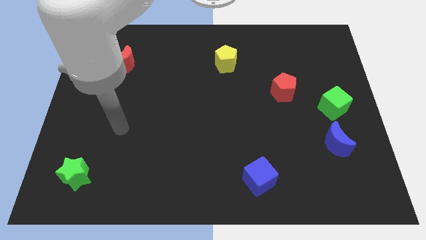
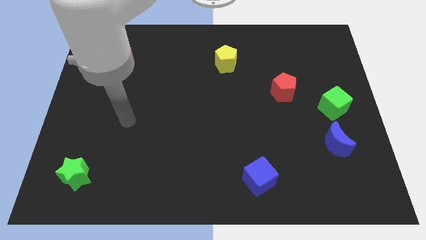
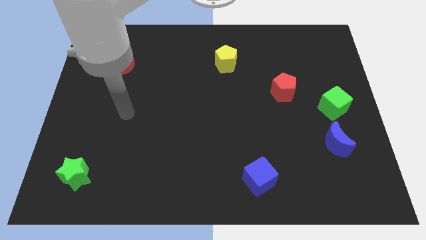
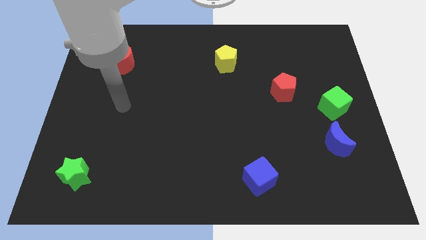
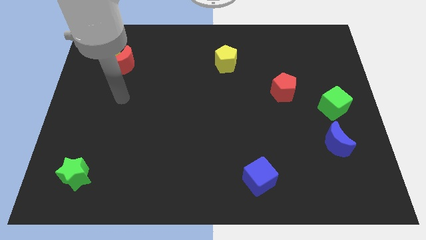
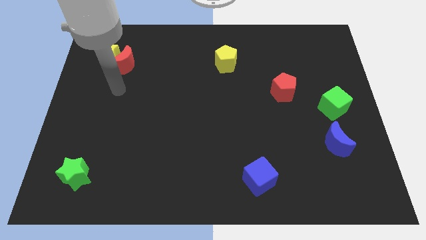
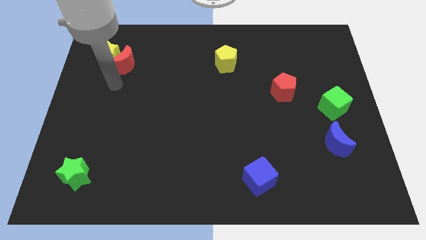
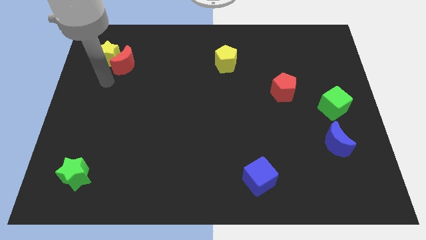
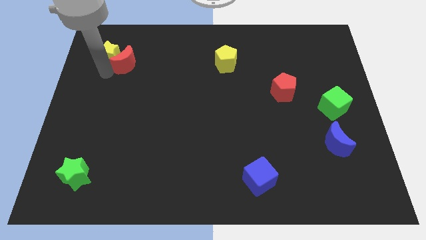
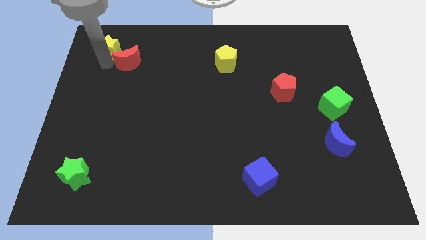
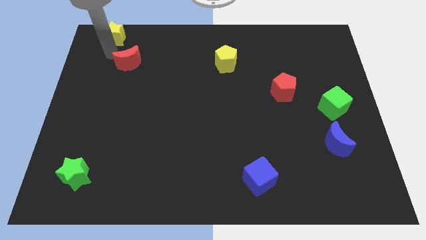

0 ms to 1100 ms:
move the red moon away from the yellow star

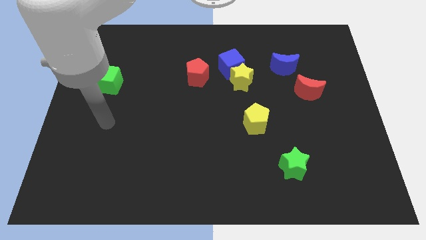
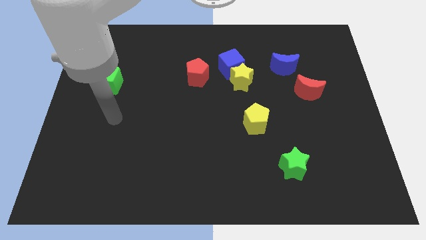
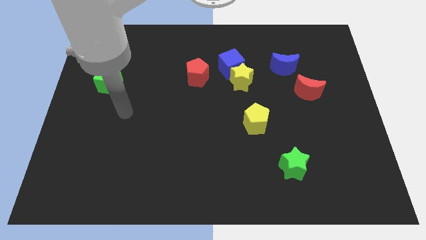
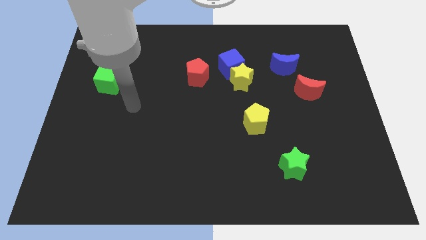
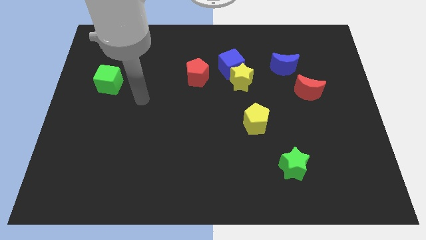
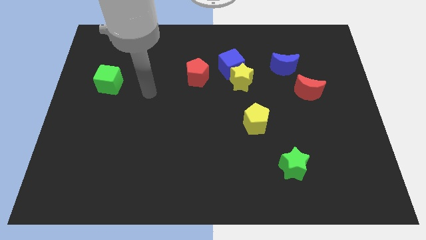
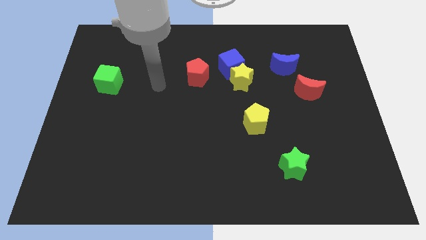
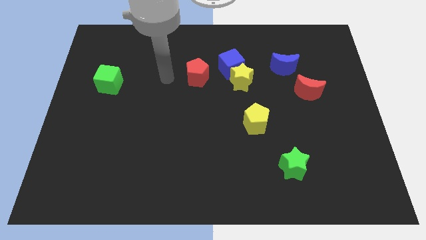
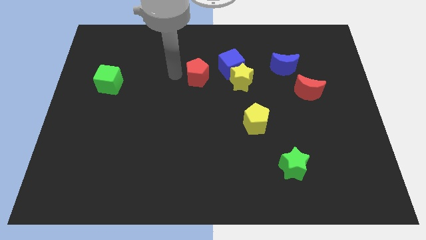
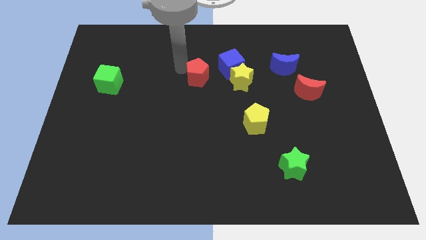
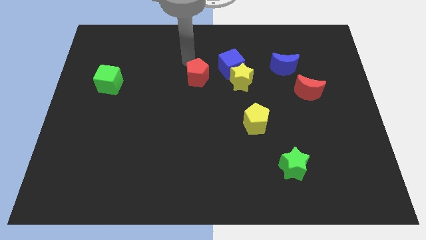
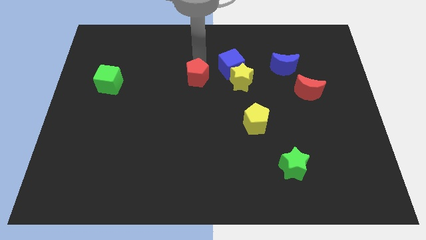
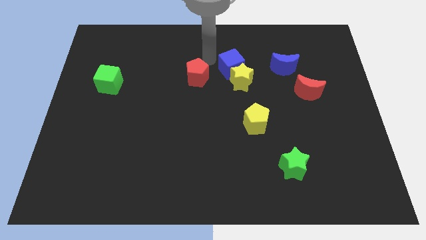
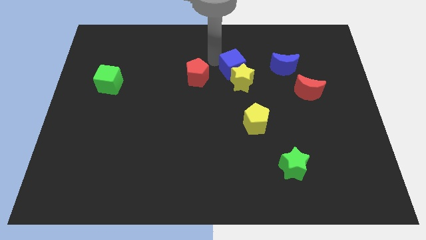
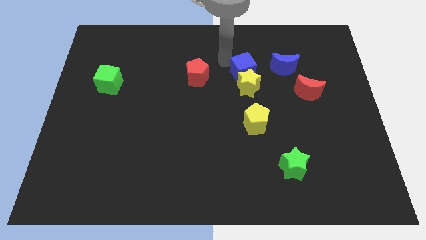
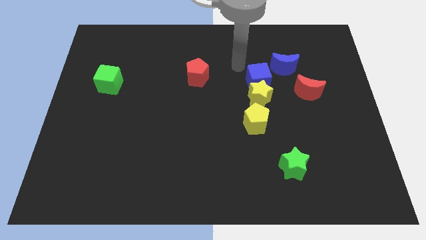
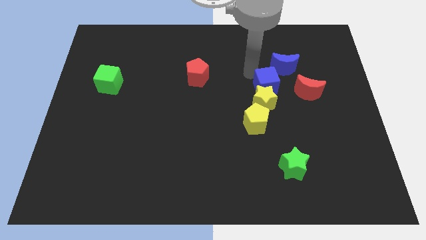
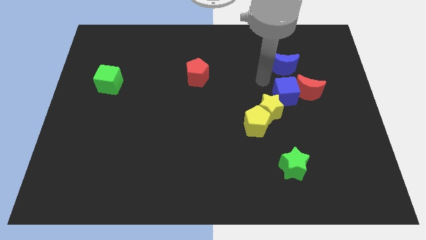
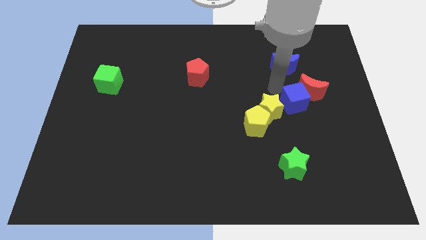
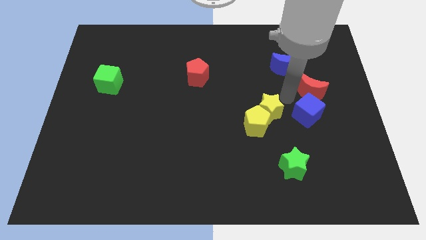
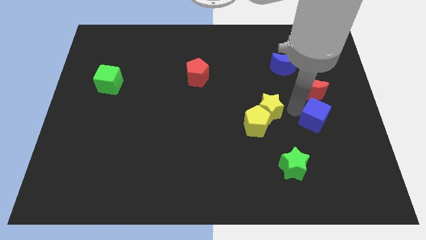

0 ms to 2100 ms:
move the yellow star away from the blue cube

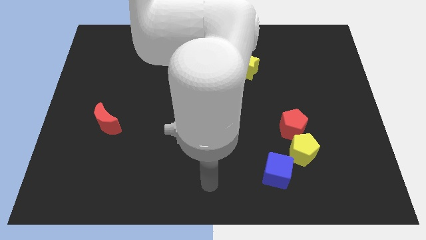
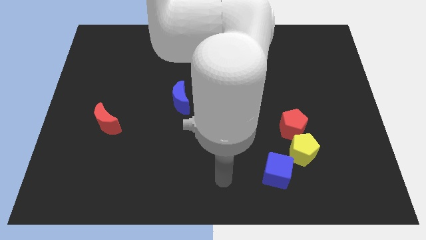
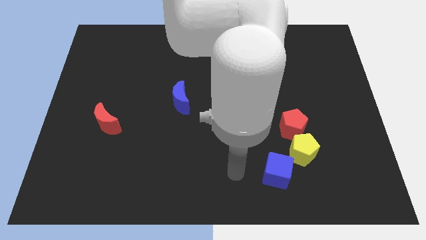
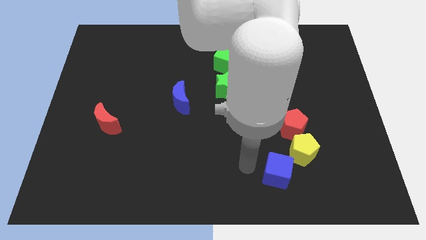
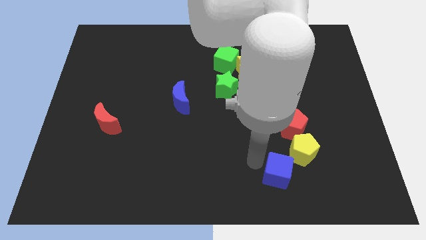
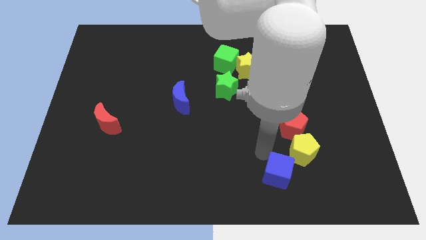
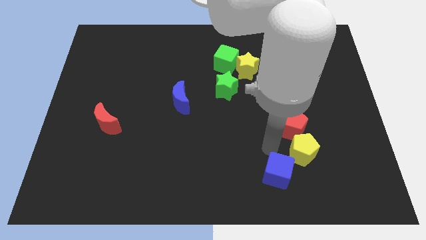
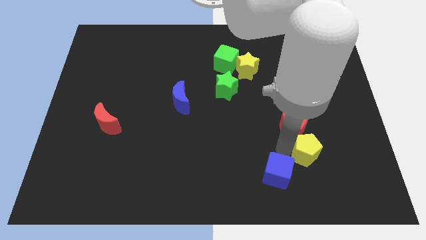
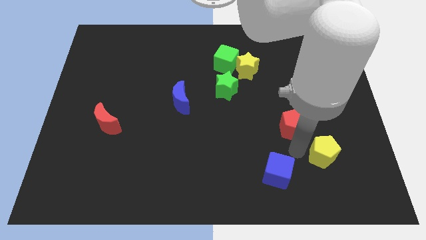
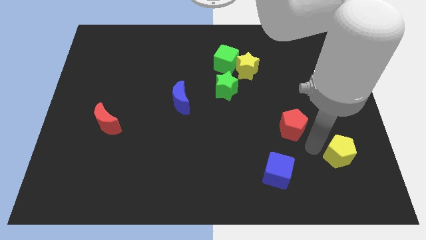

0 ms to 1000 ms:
pull the red pentagon apart from the yellow pentagon

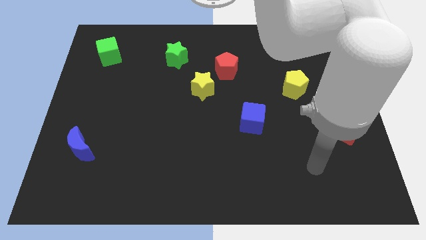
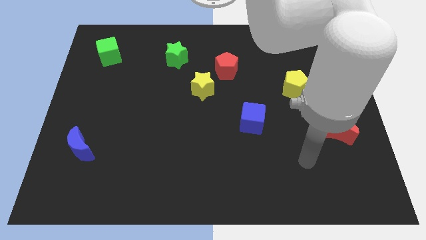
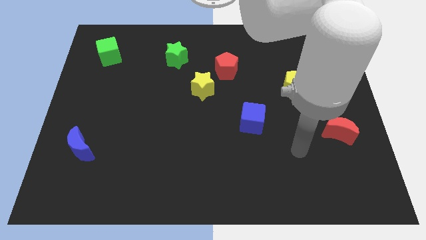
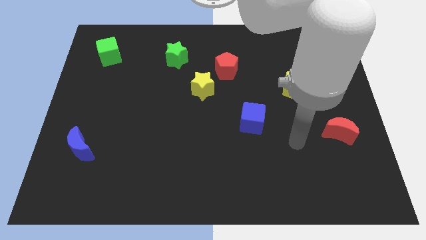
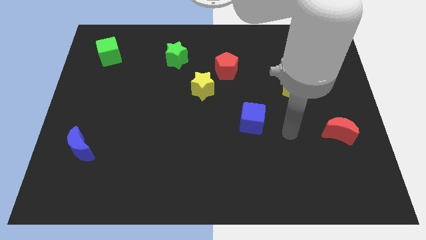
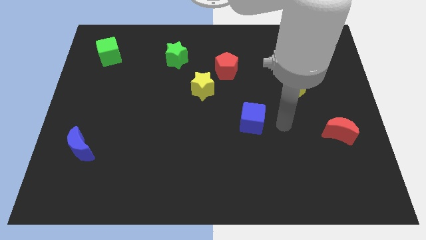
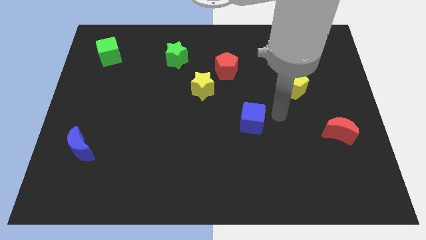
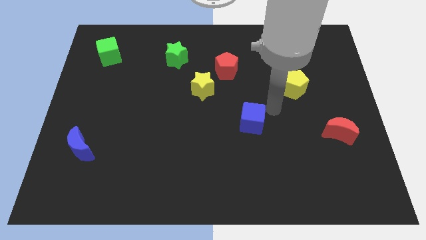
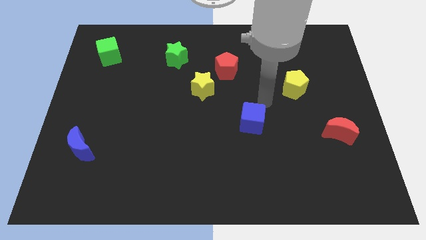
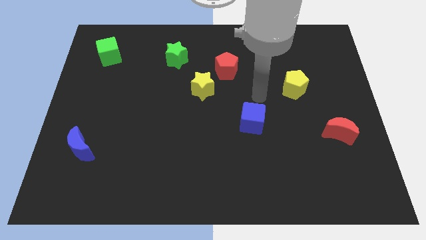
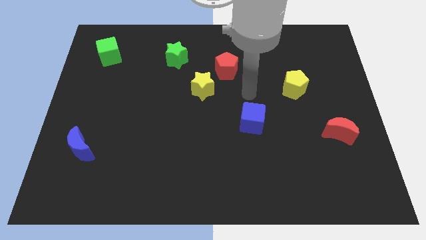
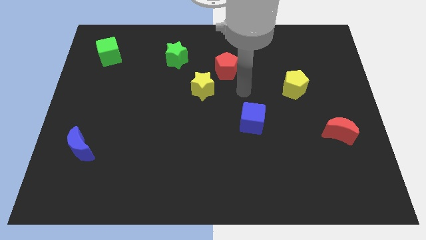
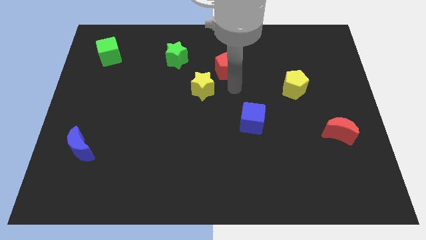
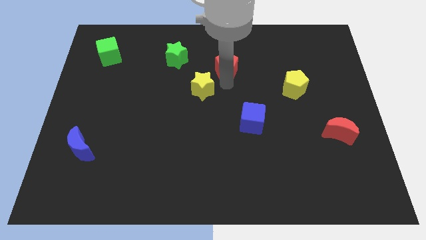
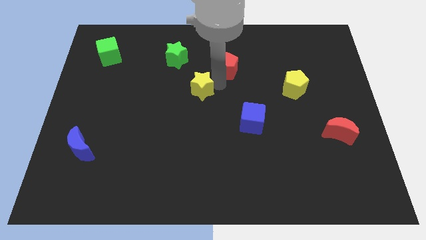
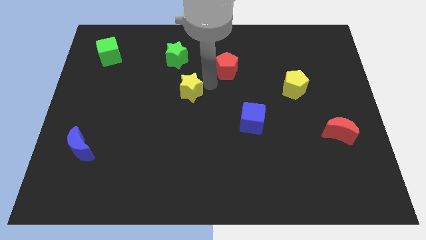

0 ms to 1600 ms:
pull the red pentagon apart from the yellow star

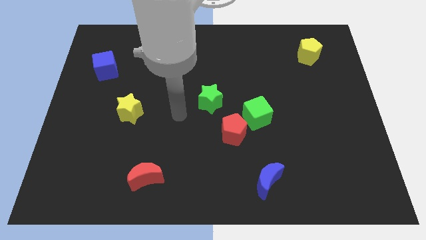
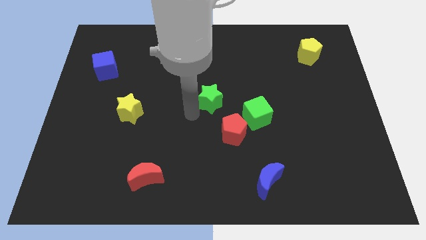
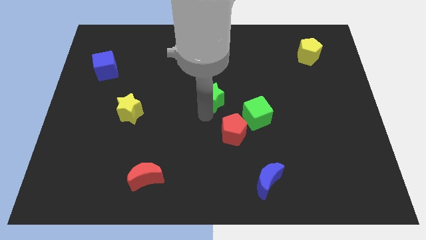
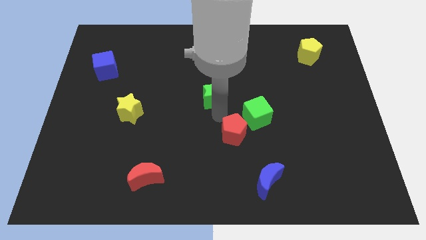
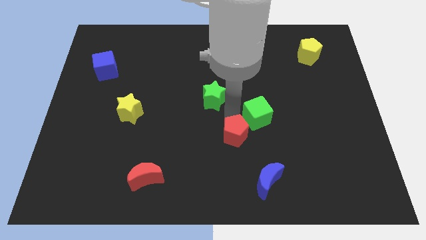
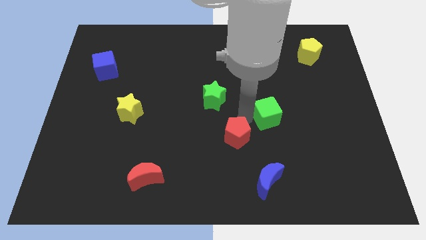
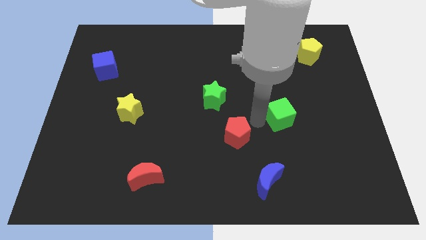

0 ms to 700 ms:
move the red pentagon away from the green cube

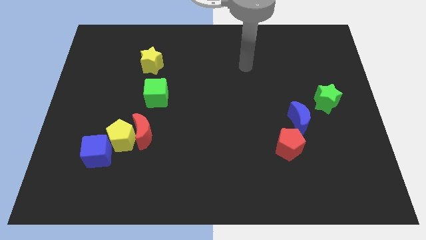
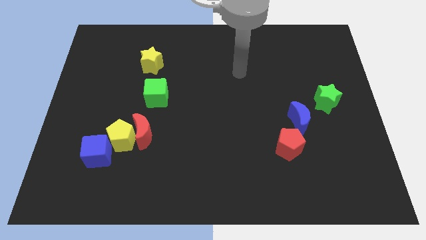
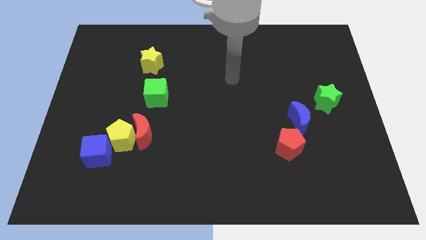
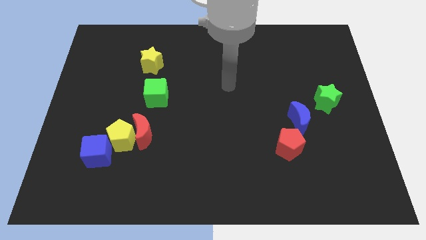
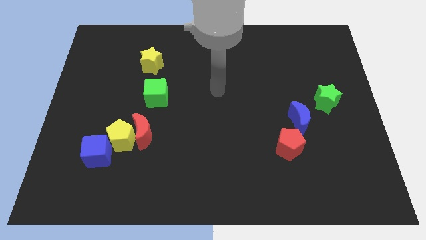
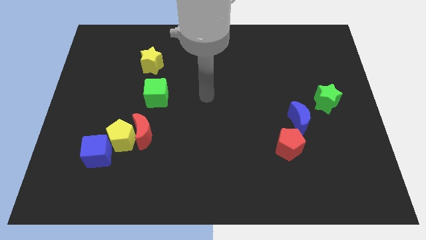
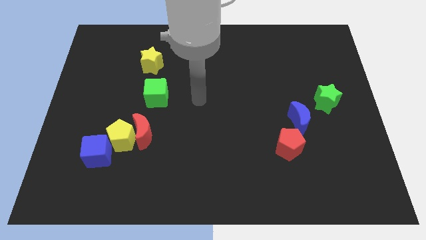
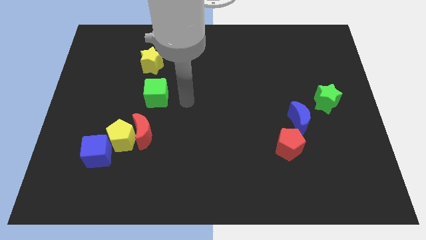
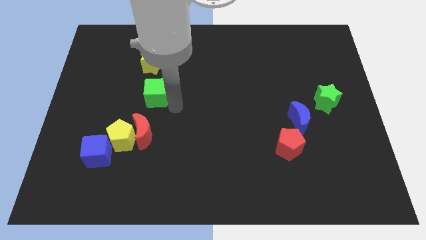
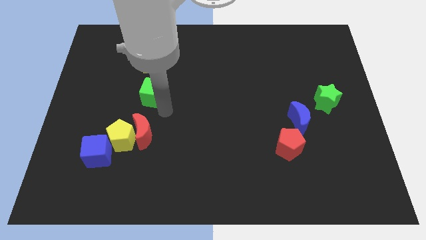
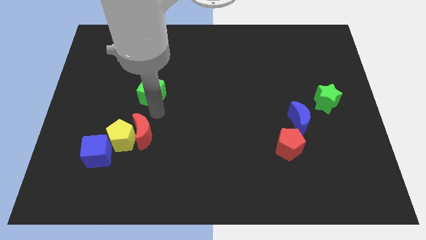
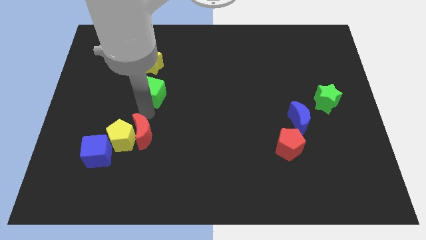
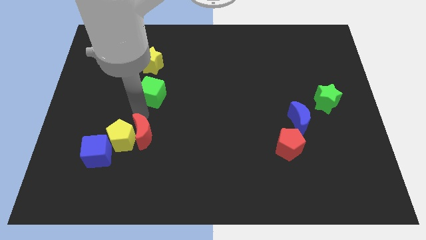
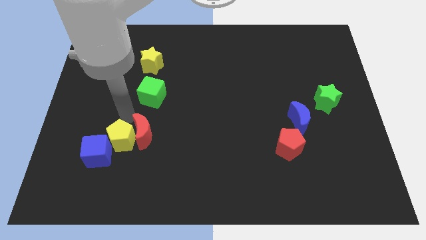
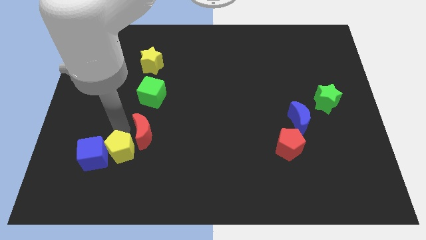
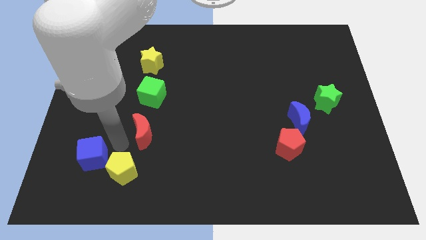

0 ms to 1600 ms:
move the red moon away from the yellow pentagon

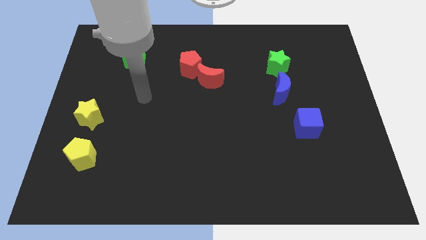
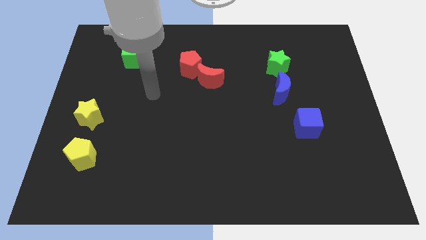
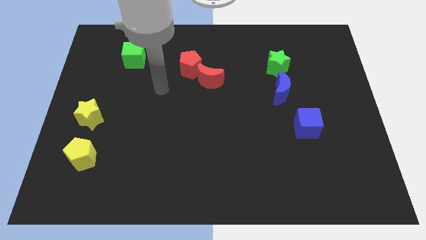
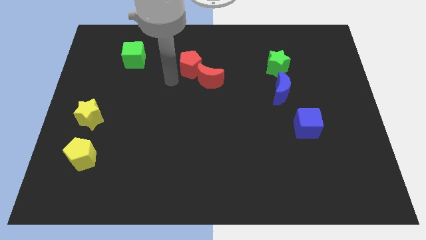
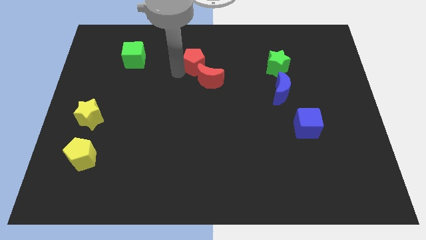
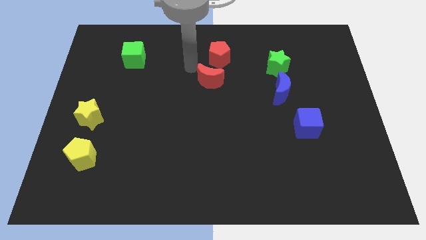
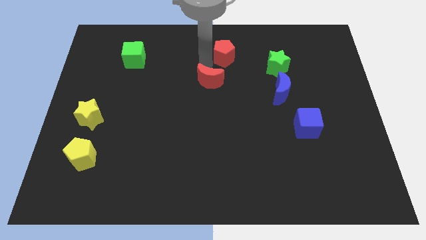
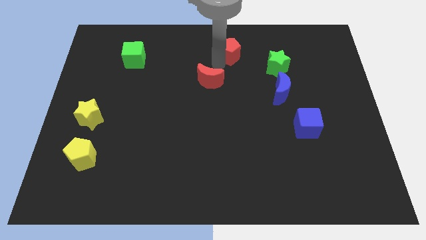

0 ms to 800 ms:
separate the red moon from the red pentagon

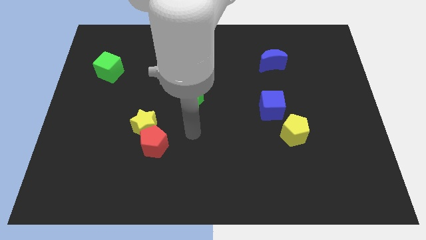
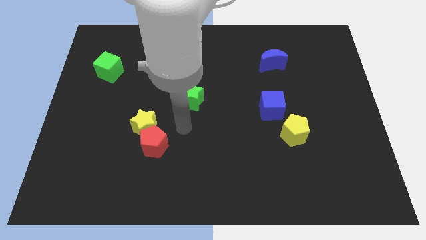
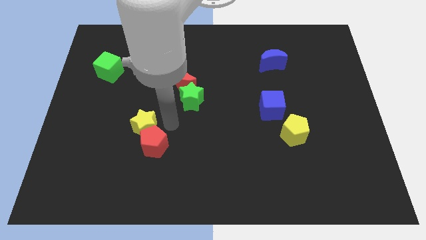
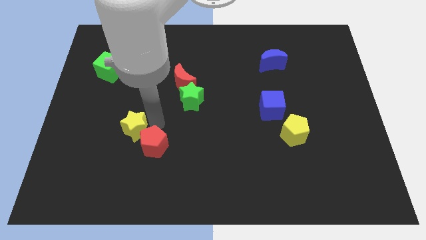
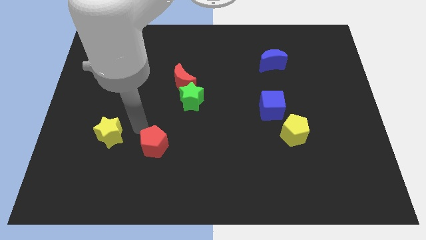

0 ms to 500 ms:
move the red pentagon away from the yellow star
